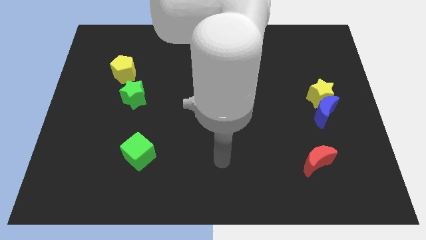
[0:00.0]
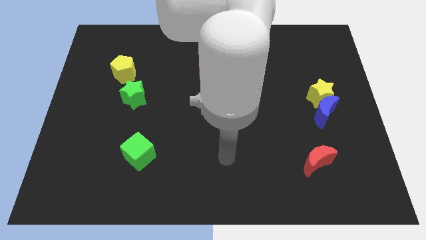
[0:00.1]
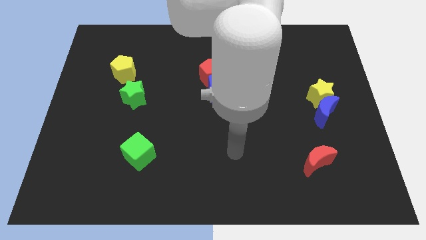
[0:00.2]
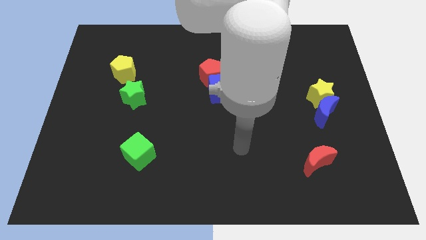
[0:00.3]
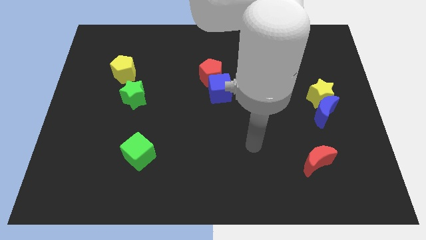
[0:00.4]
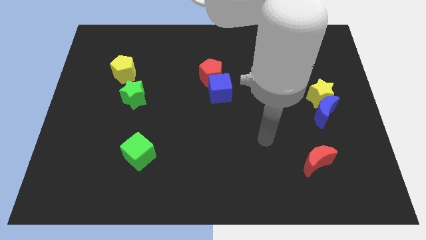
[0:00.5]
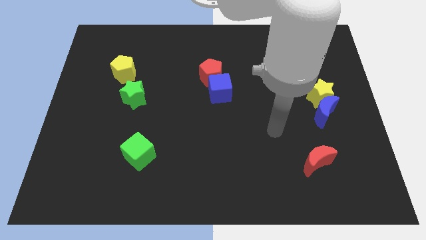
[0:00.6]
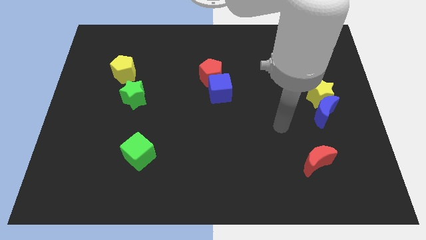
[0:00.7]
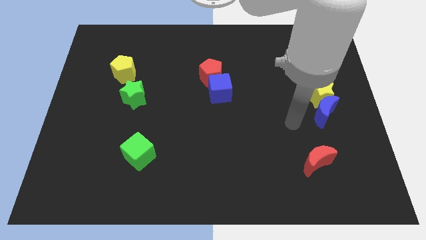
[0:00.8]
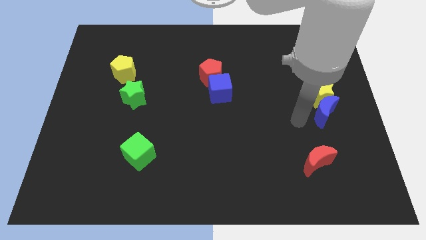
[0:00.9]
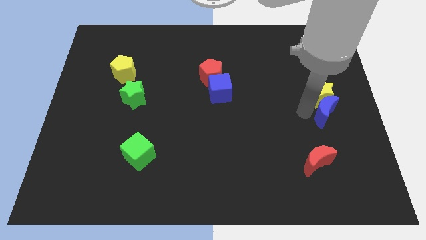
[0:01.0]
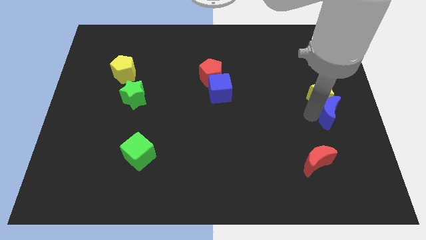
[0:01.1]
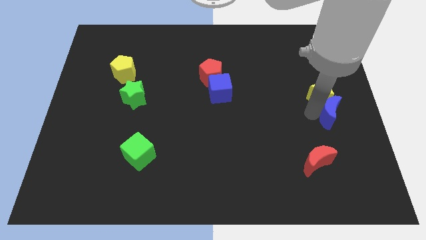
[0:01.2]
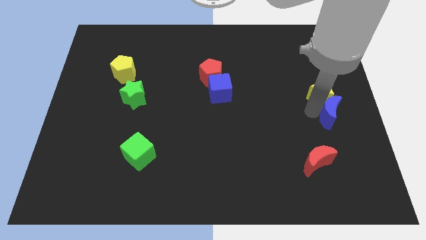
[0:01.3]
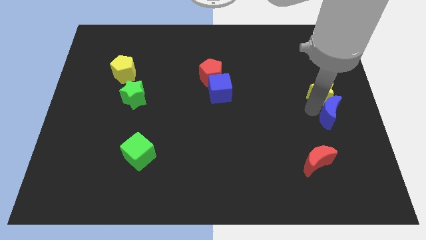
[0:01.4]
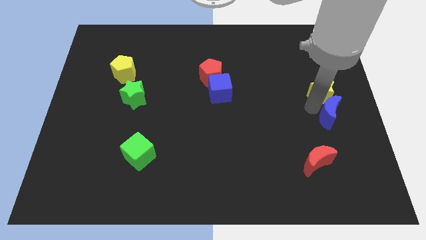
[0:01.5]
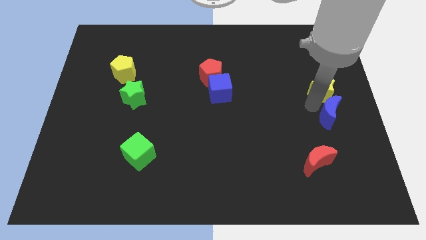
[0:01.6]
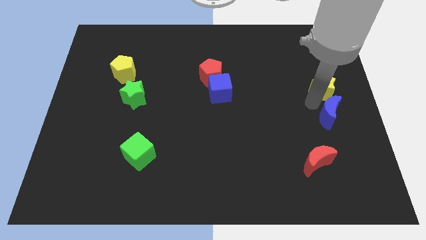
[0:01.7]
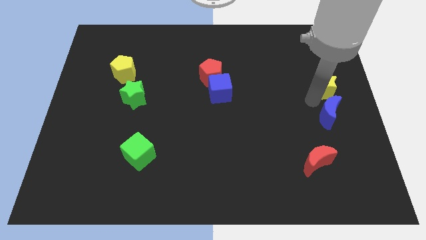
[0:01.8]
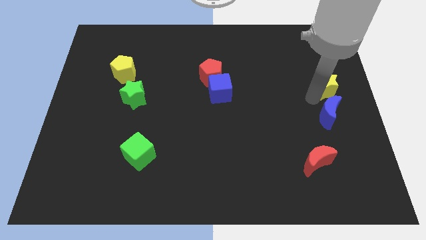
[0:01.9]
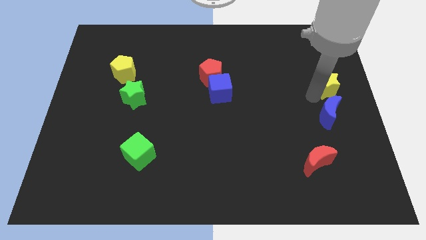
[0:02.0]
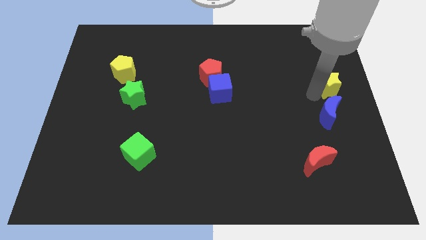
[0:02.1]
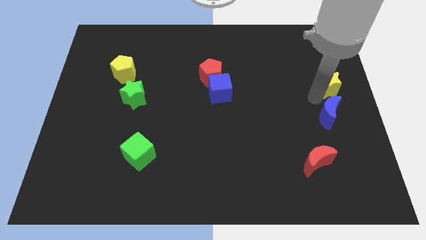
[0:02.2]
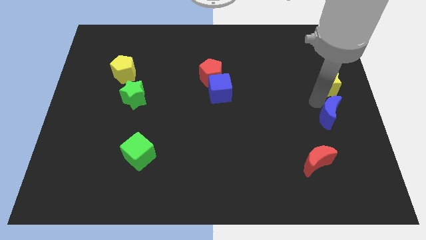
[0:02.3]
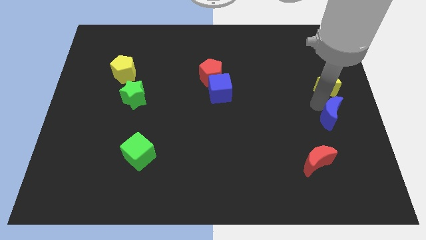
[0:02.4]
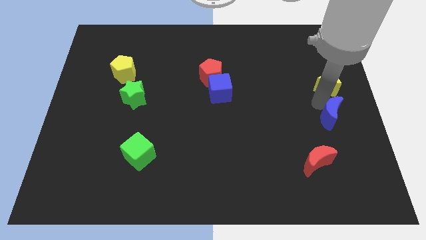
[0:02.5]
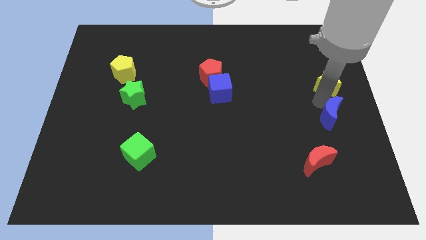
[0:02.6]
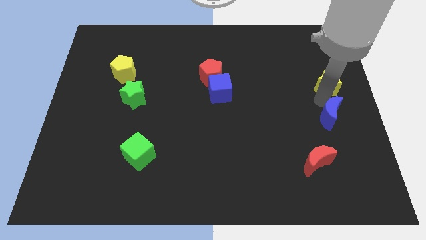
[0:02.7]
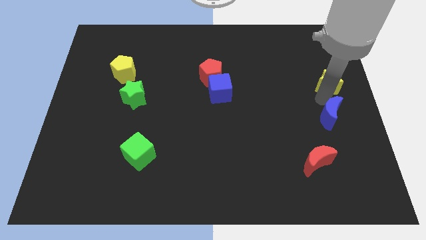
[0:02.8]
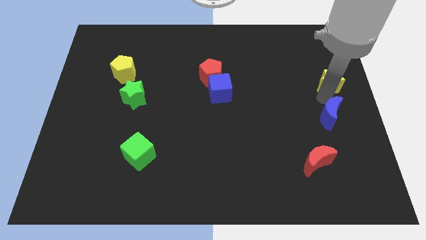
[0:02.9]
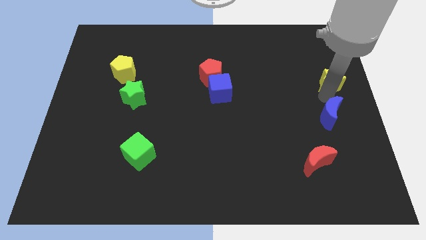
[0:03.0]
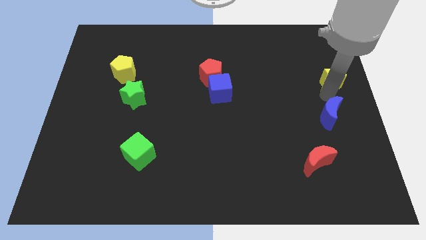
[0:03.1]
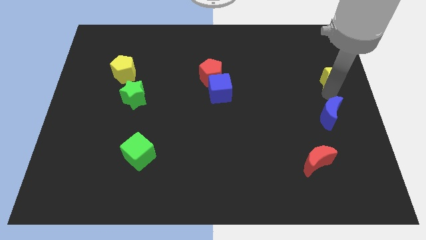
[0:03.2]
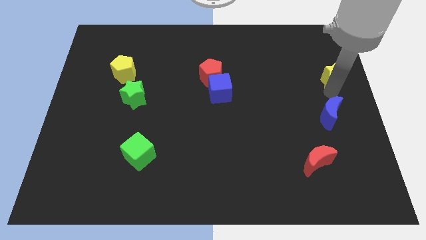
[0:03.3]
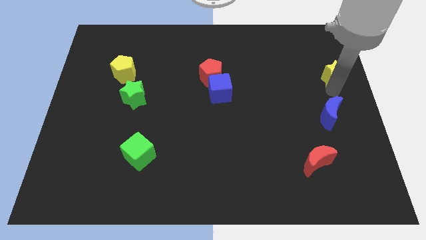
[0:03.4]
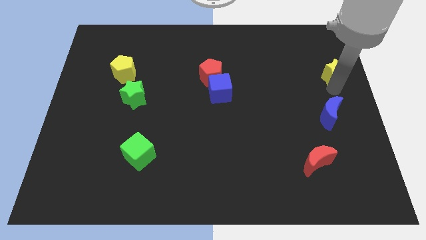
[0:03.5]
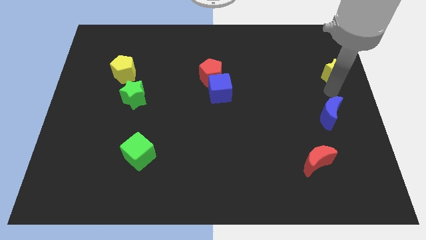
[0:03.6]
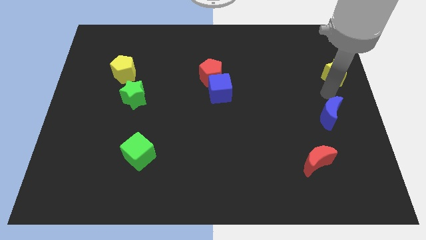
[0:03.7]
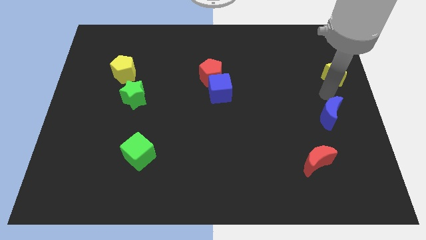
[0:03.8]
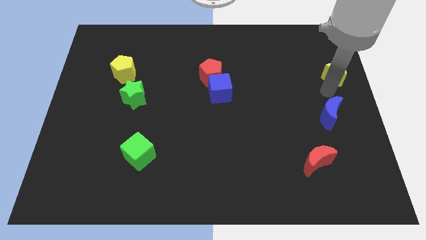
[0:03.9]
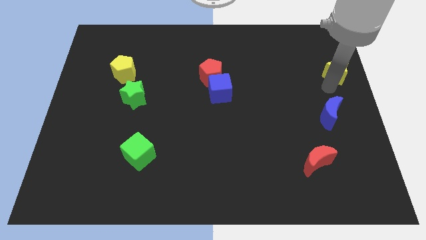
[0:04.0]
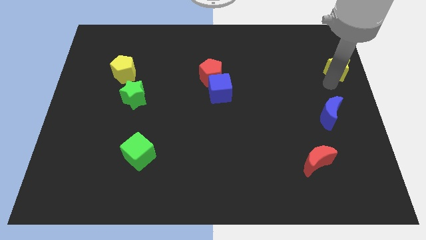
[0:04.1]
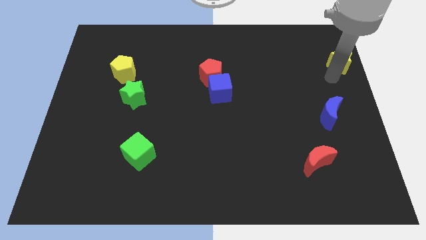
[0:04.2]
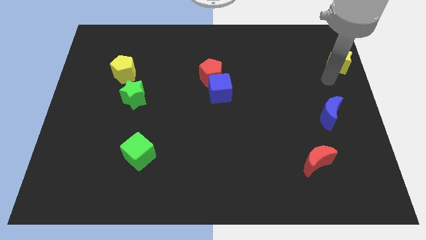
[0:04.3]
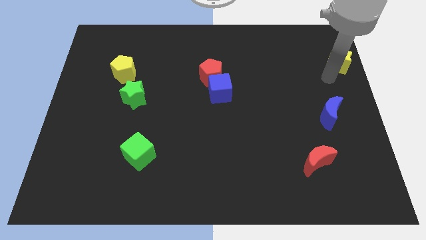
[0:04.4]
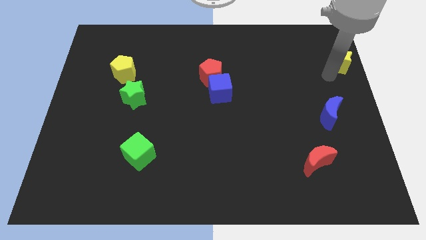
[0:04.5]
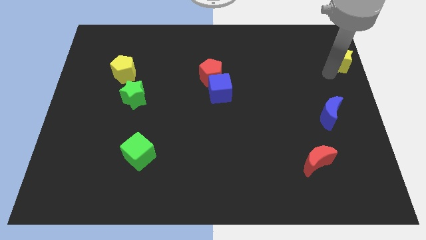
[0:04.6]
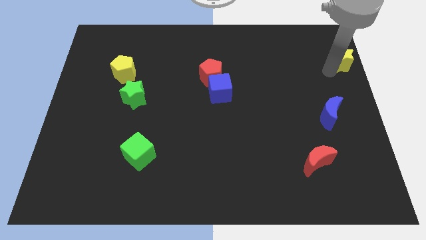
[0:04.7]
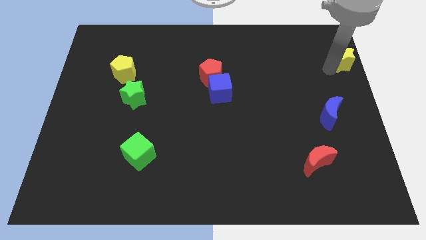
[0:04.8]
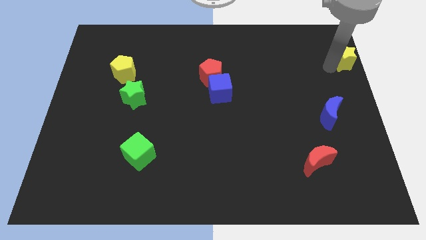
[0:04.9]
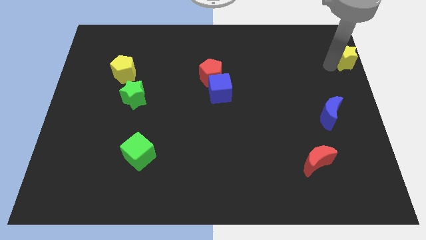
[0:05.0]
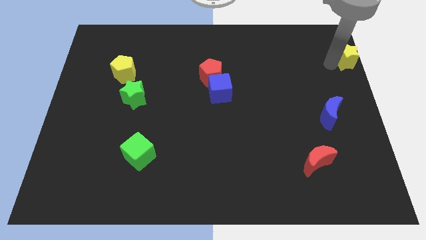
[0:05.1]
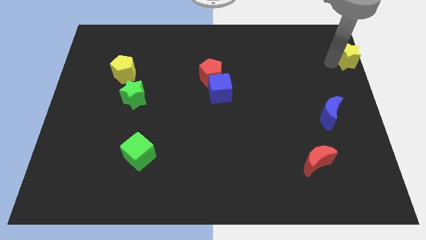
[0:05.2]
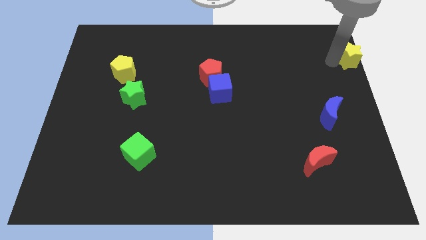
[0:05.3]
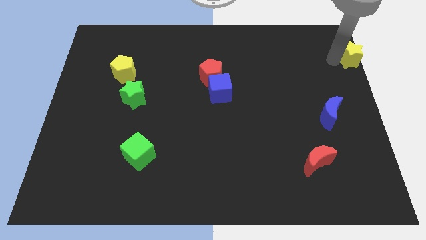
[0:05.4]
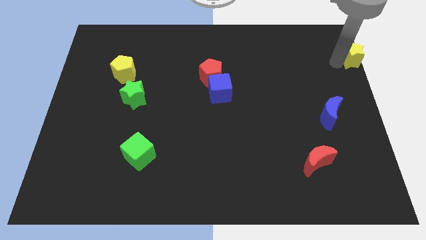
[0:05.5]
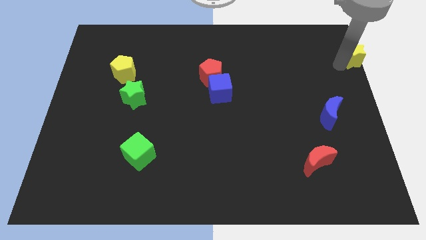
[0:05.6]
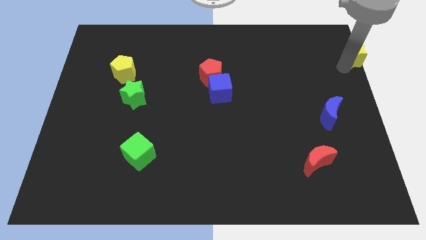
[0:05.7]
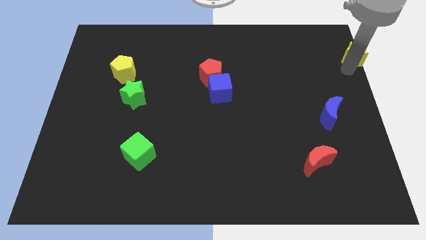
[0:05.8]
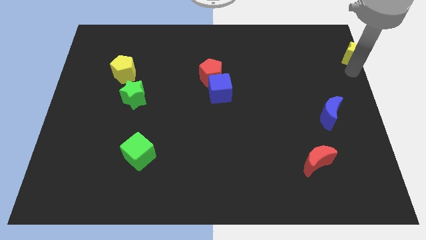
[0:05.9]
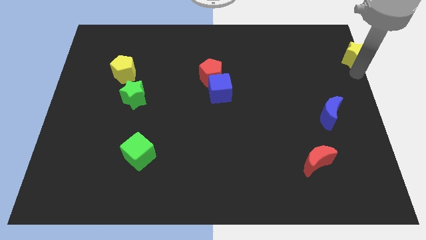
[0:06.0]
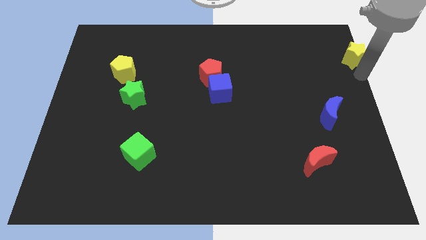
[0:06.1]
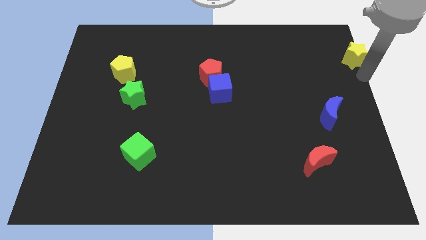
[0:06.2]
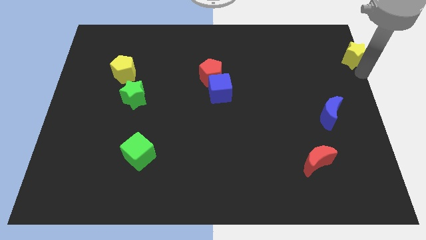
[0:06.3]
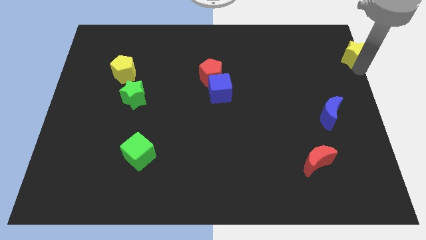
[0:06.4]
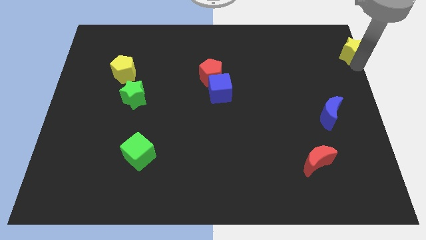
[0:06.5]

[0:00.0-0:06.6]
move the yellow star to the upper right corner

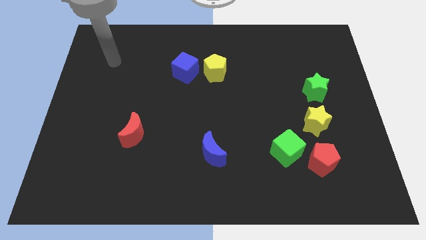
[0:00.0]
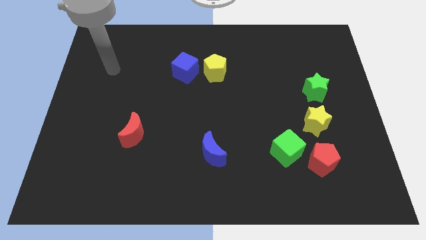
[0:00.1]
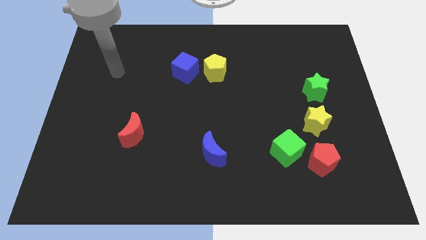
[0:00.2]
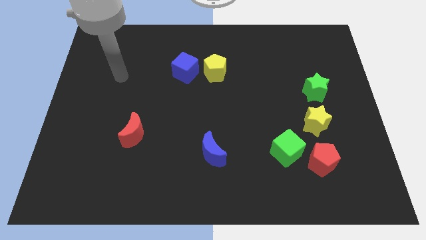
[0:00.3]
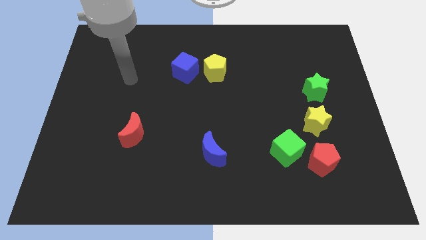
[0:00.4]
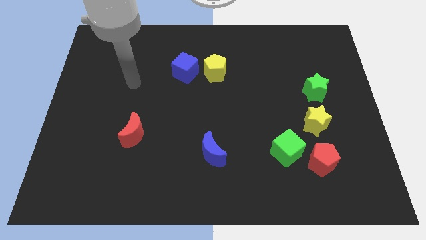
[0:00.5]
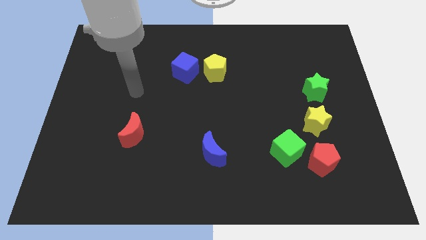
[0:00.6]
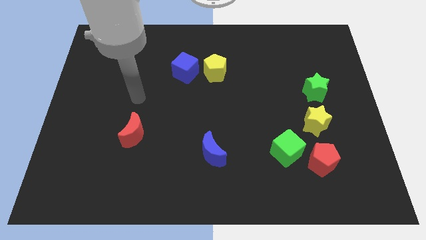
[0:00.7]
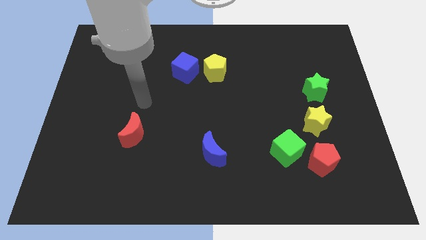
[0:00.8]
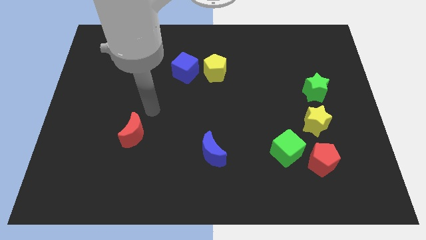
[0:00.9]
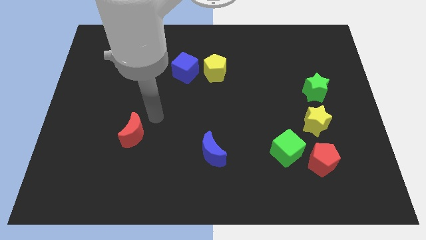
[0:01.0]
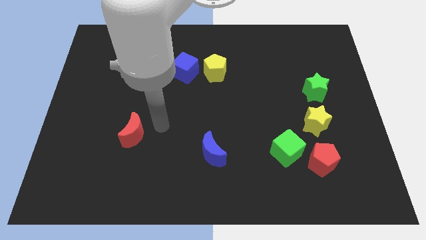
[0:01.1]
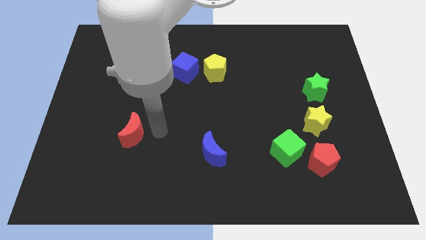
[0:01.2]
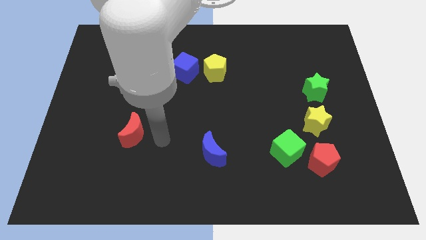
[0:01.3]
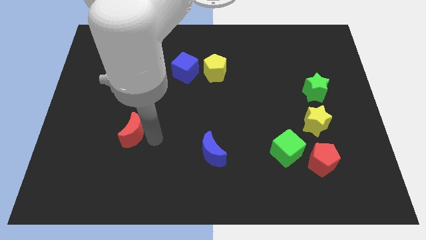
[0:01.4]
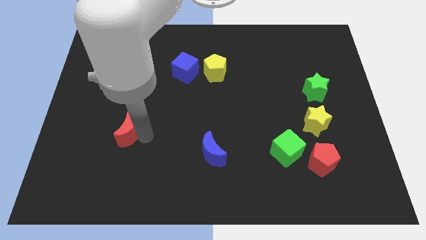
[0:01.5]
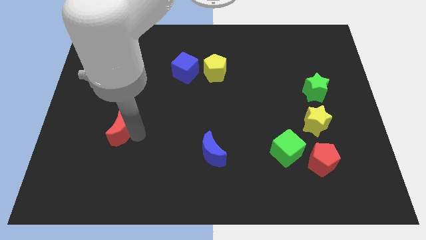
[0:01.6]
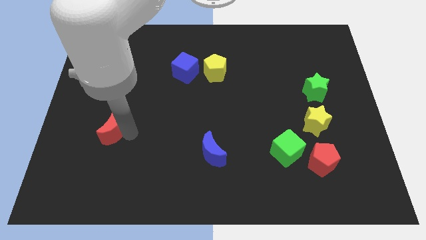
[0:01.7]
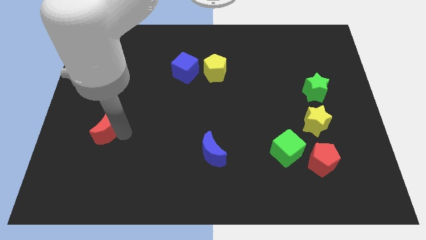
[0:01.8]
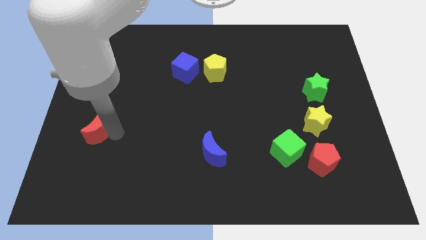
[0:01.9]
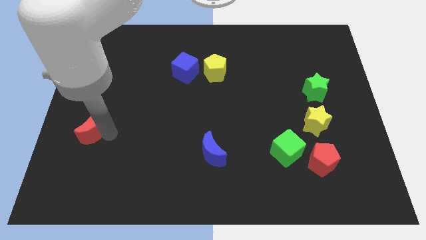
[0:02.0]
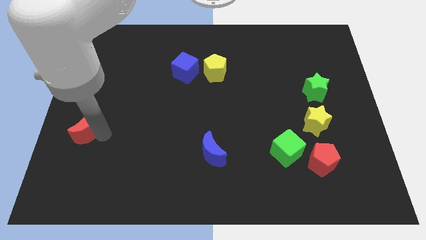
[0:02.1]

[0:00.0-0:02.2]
slide the red moon to the left side
